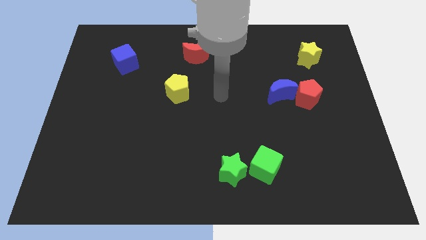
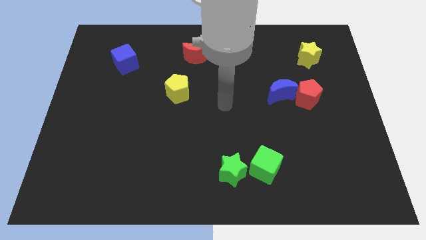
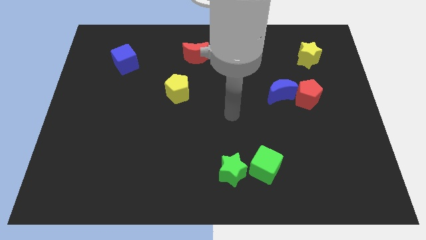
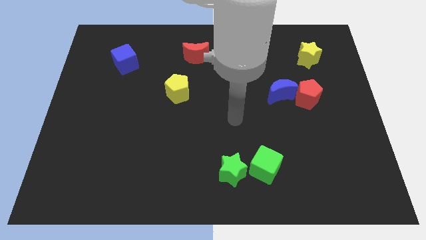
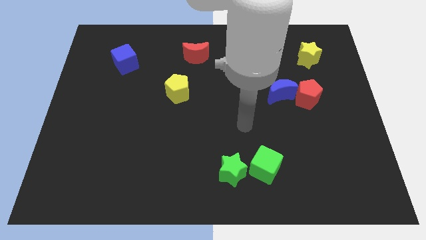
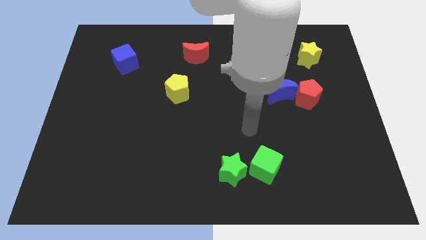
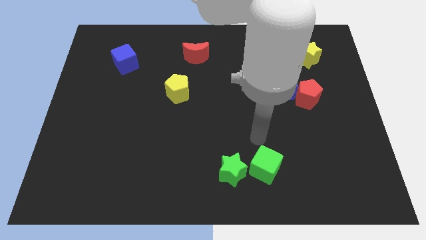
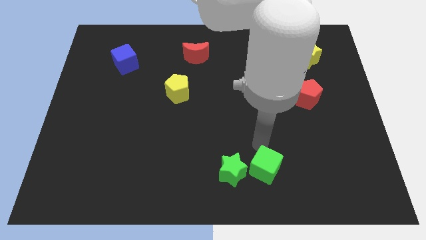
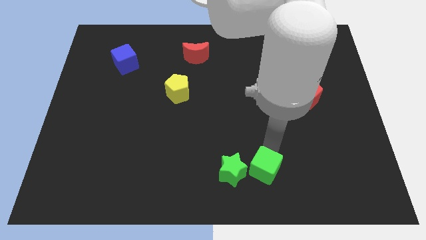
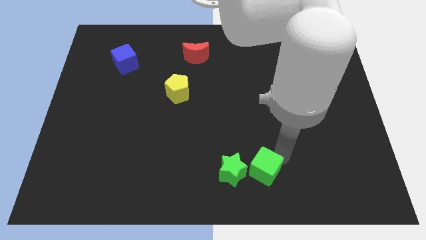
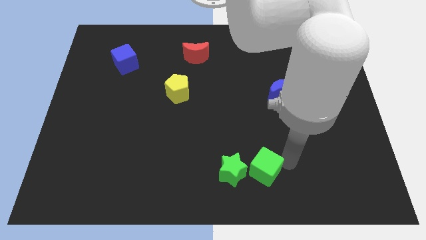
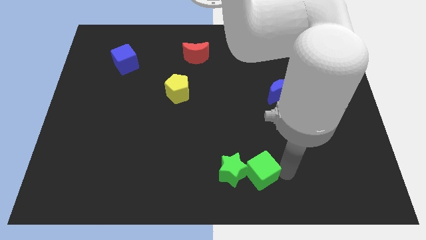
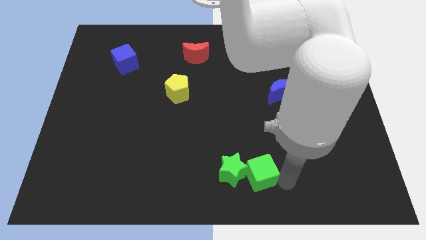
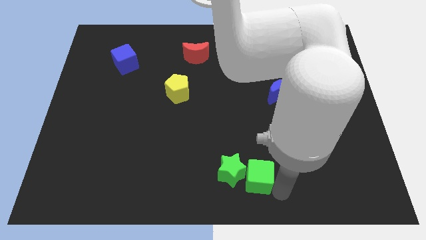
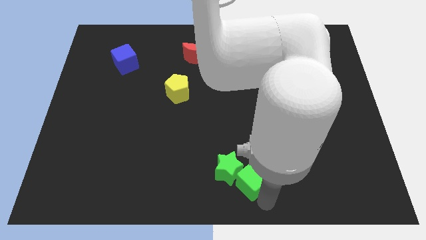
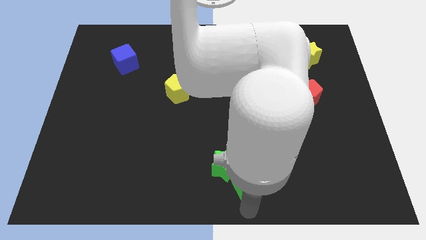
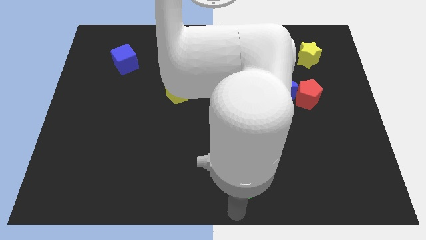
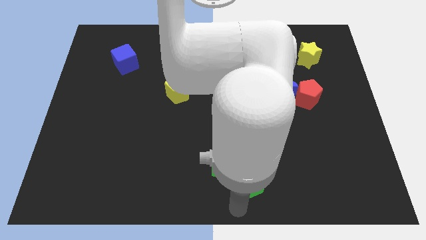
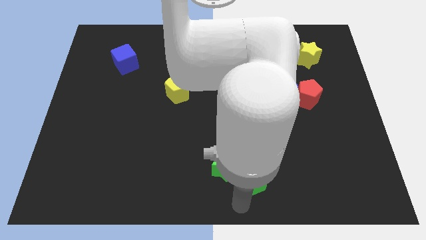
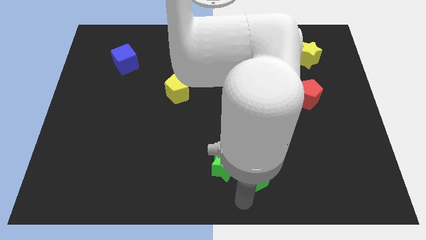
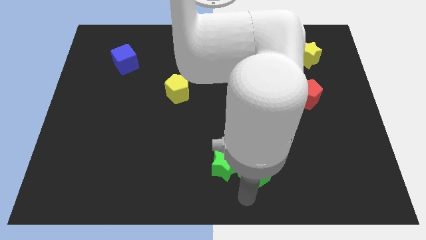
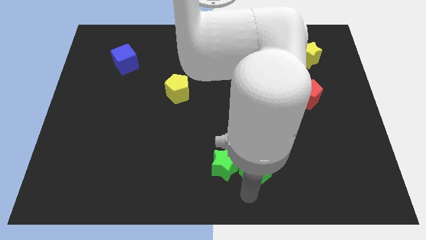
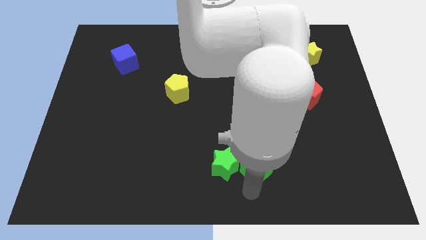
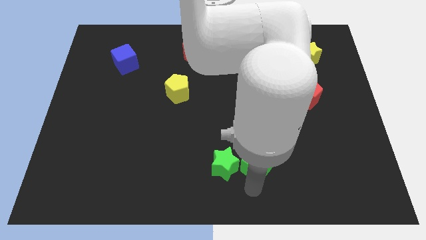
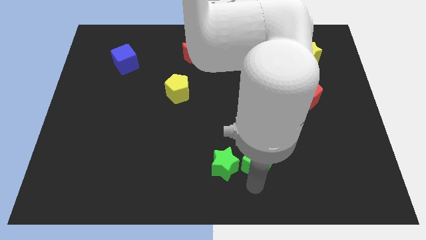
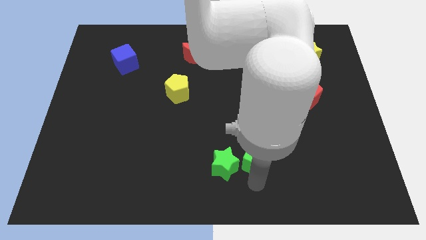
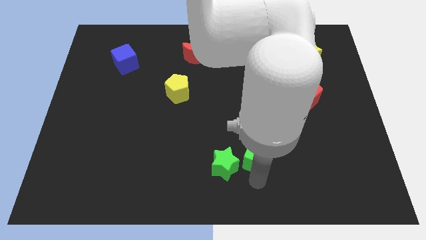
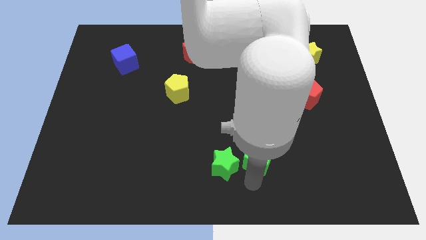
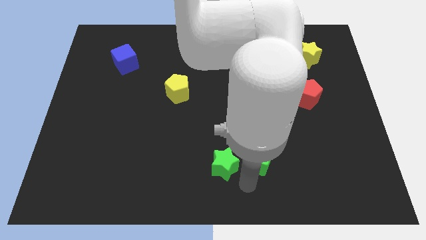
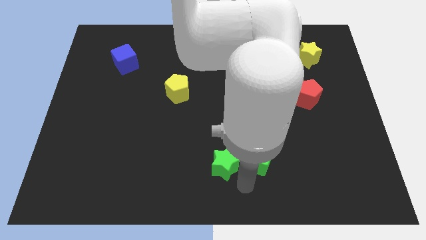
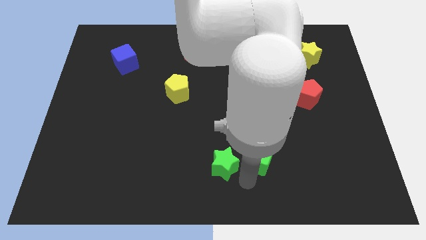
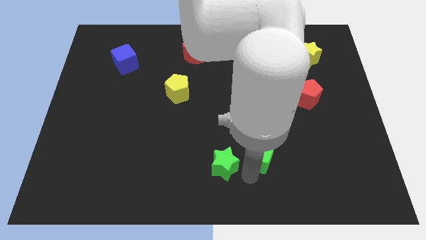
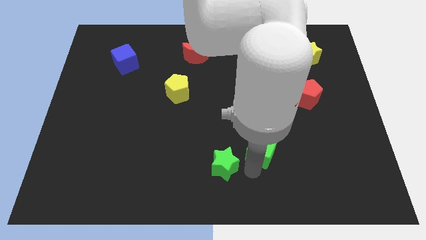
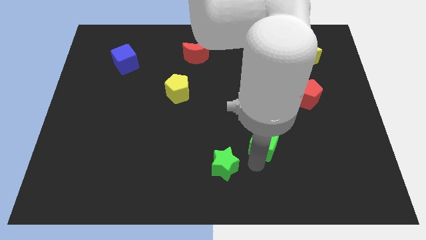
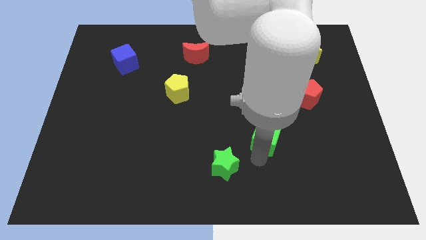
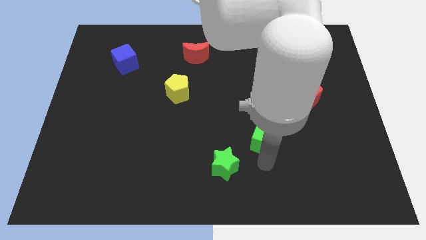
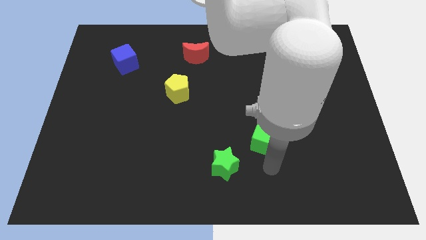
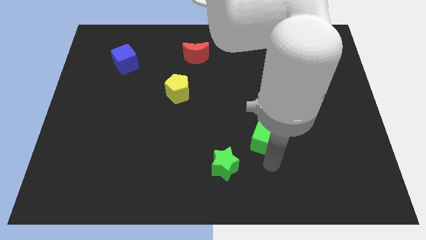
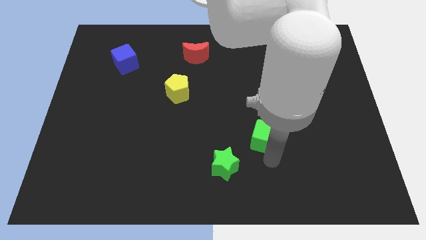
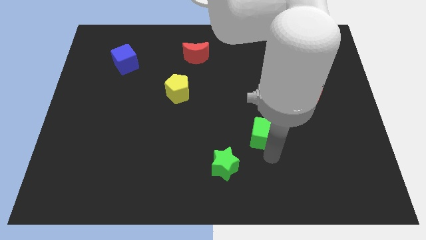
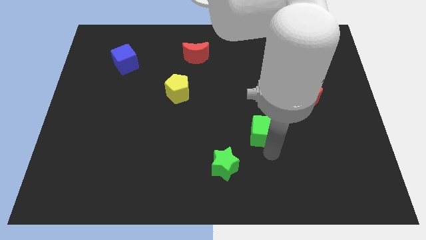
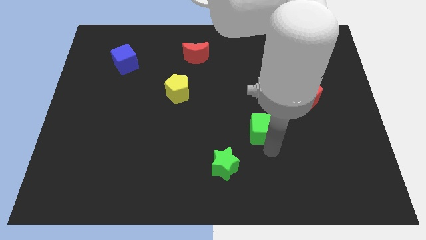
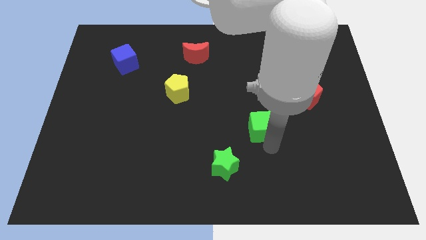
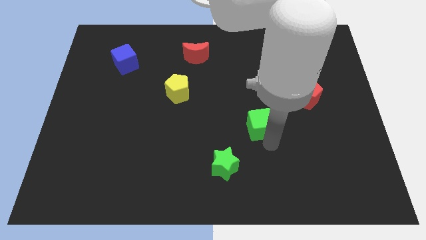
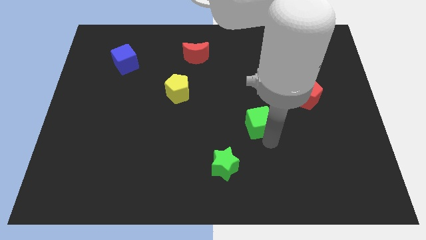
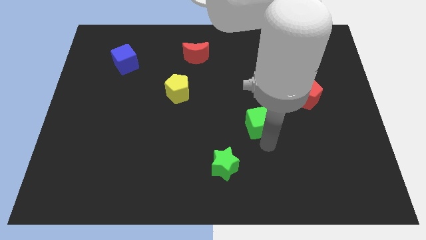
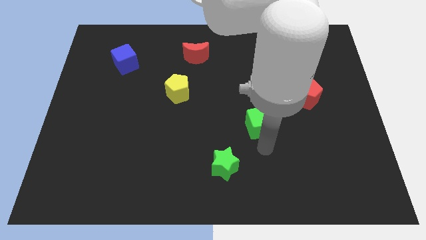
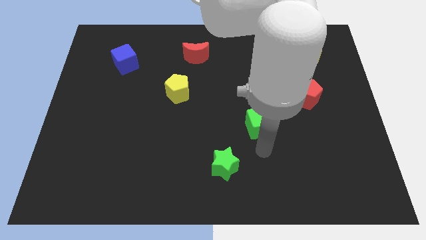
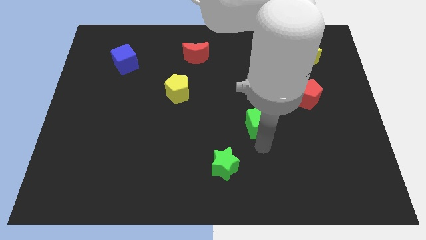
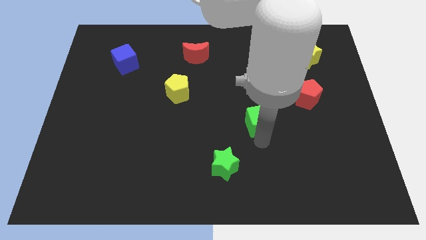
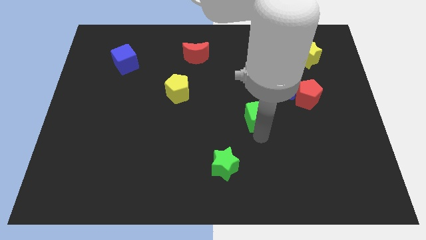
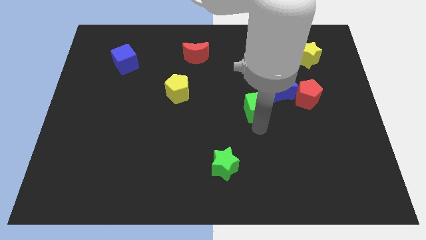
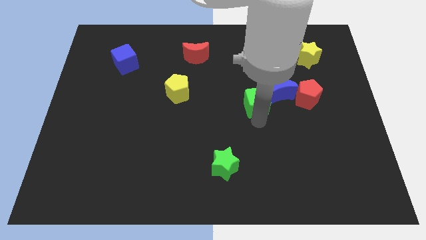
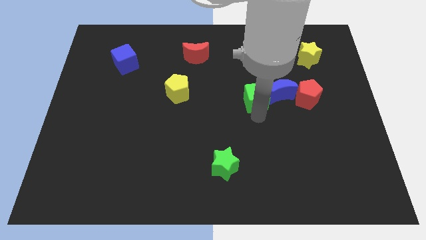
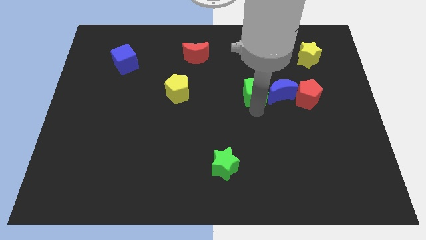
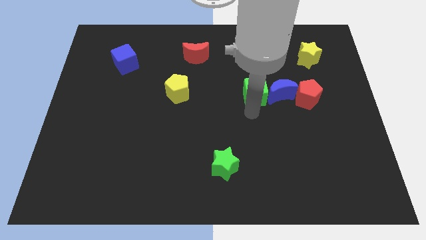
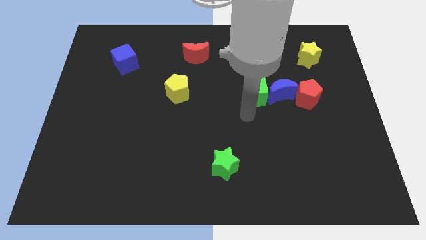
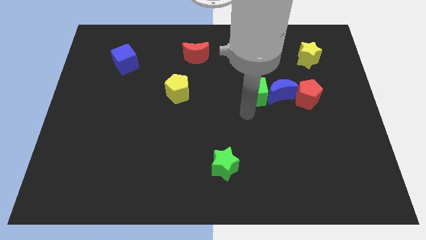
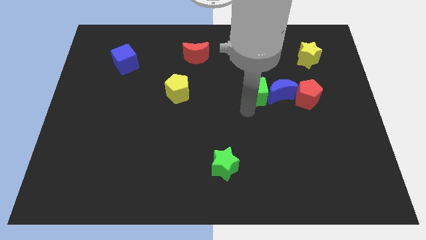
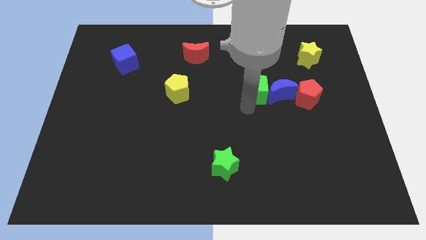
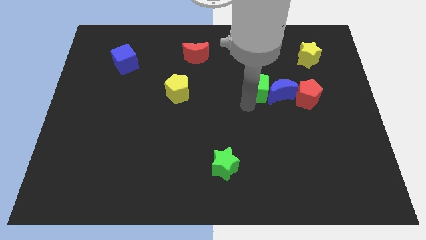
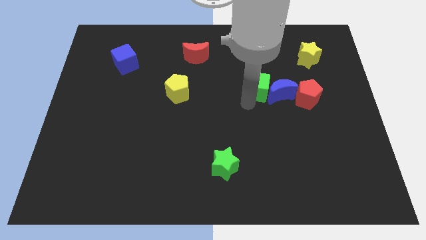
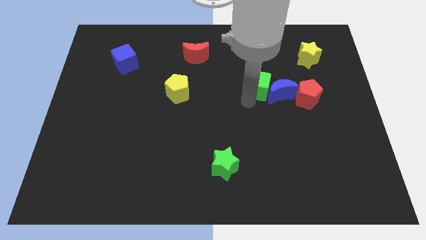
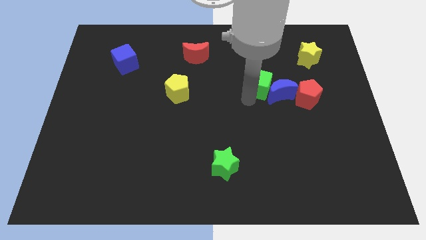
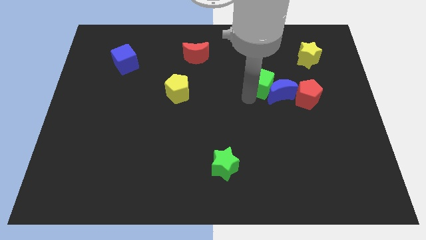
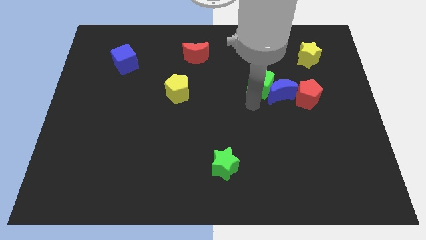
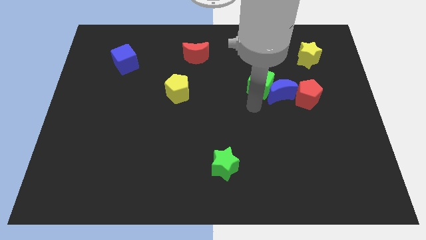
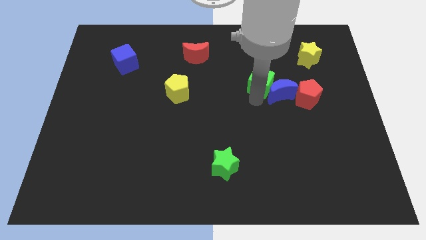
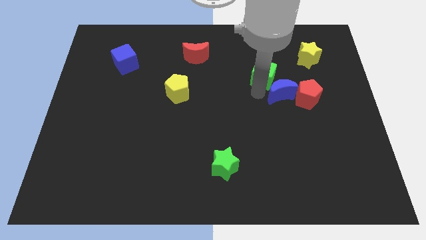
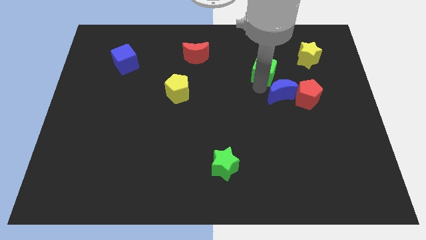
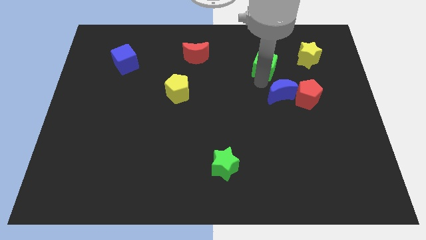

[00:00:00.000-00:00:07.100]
put the green cube to the left side of the yellow star

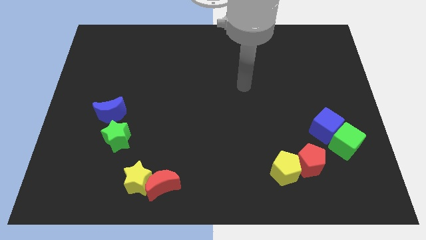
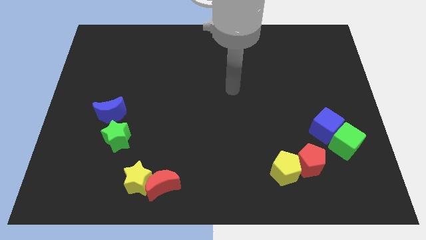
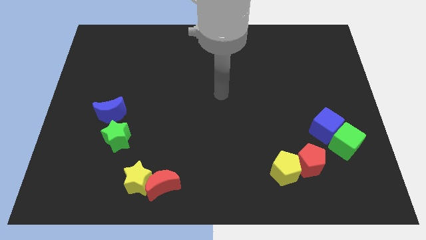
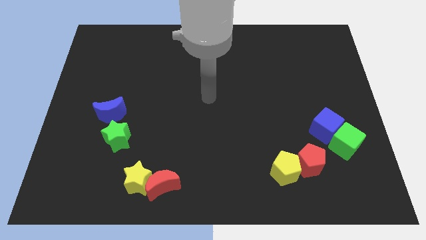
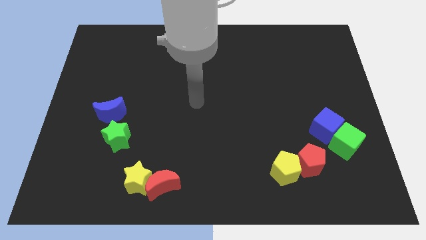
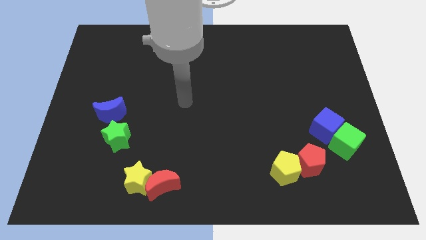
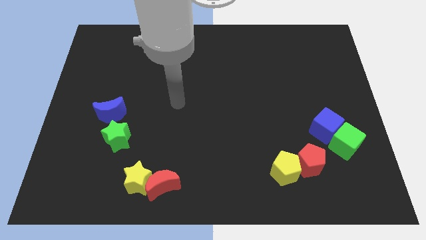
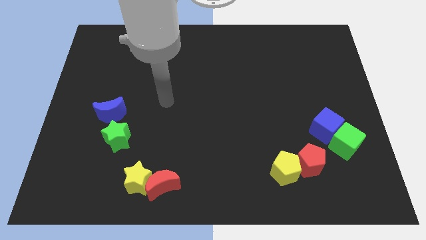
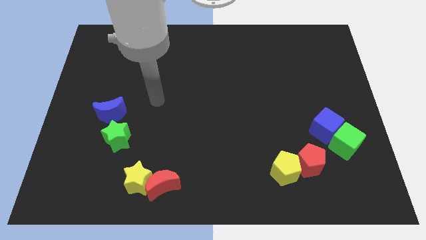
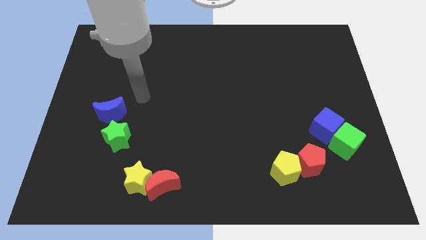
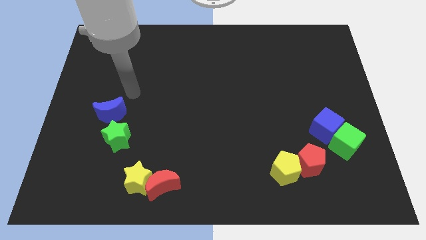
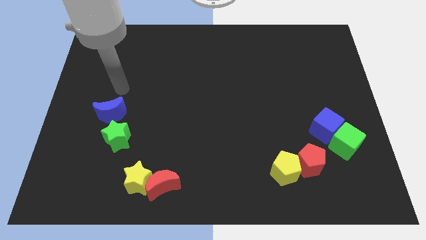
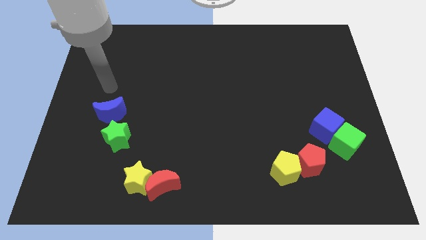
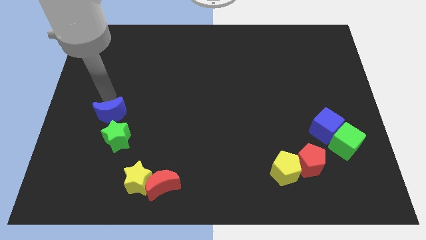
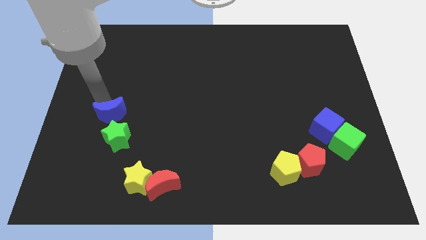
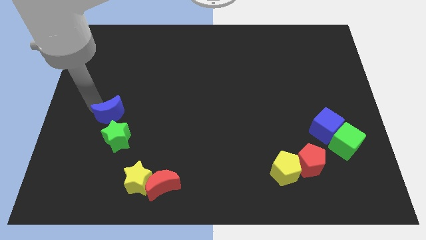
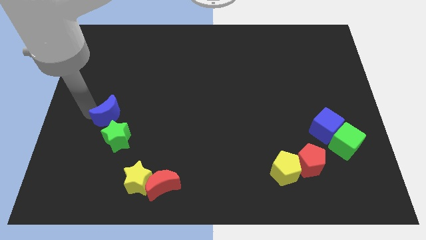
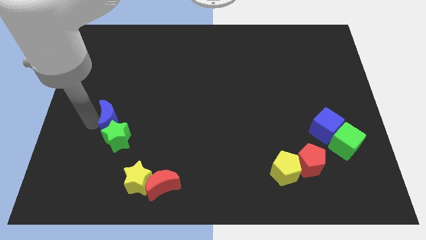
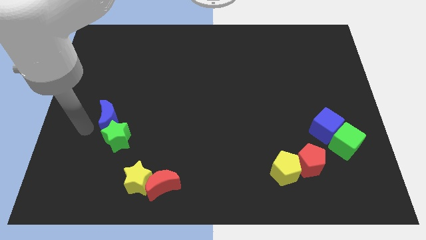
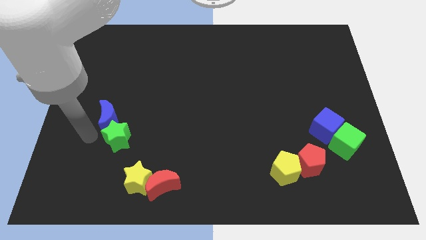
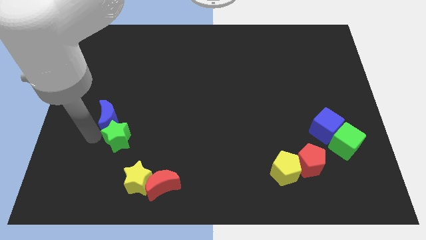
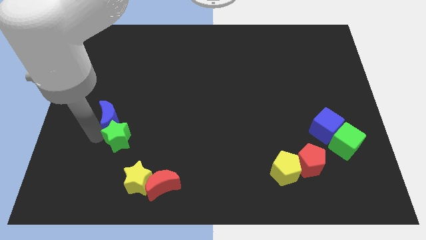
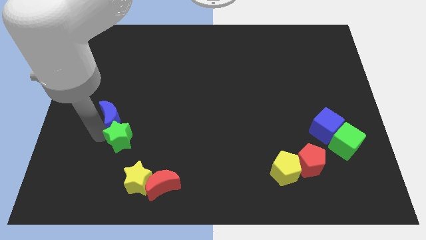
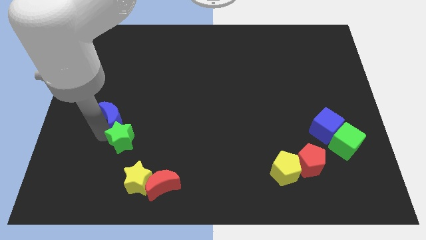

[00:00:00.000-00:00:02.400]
push the green star to the top side of the yellow star
